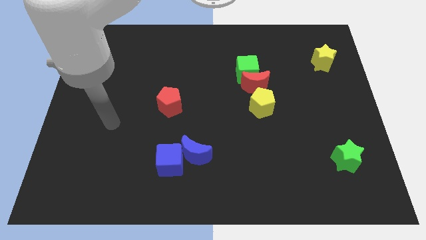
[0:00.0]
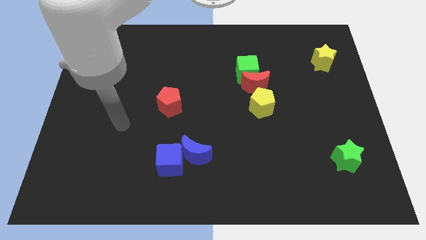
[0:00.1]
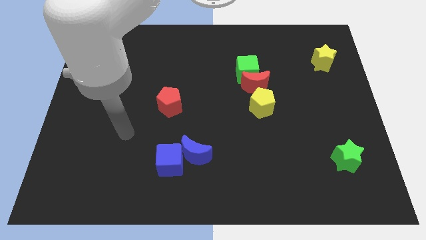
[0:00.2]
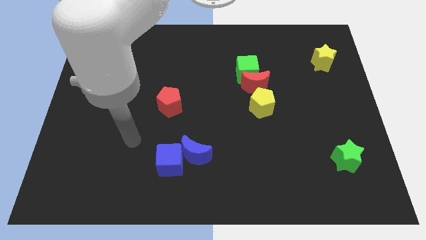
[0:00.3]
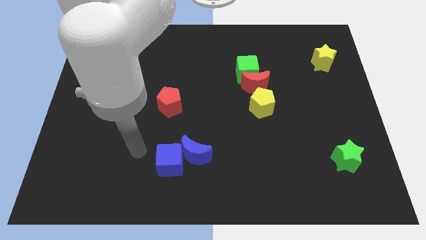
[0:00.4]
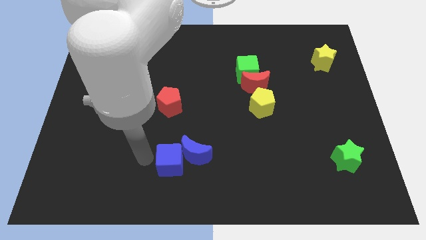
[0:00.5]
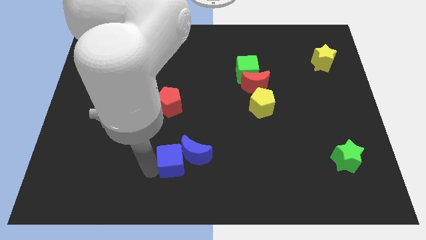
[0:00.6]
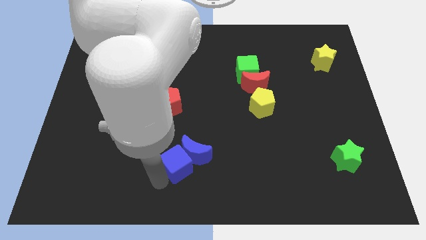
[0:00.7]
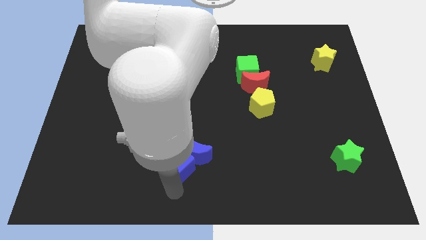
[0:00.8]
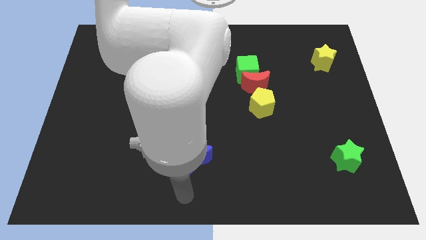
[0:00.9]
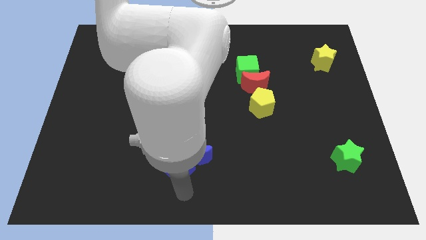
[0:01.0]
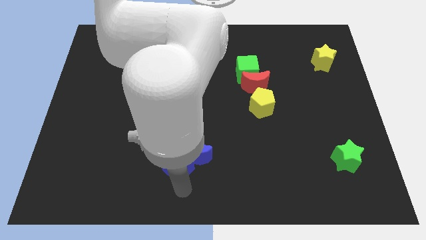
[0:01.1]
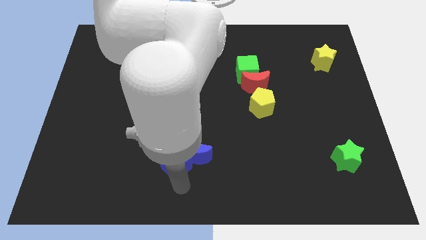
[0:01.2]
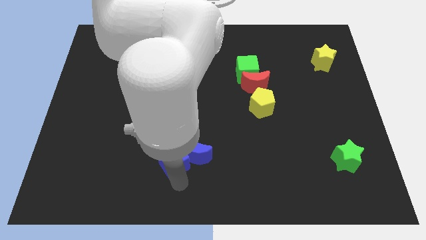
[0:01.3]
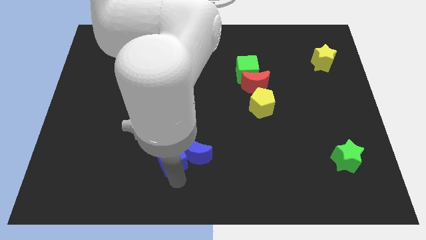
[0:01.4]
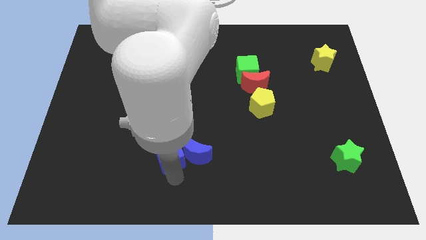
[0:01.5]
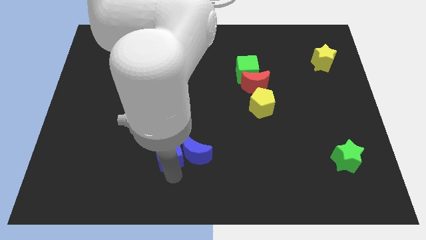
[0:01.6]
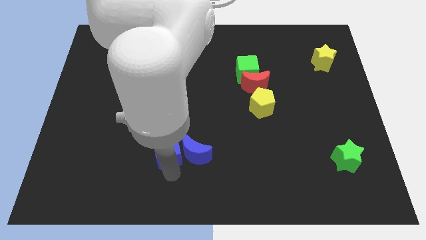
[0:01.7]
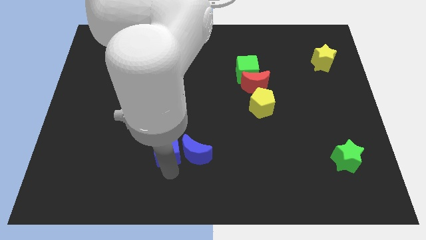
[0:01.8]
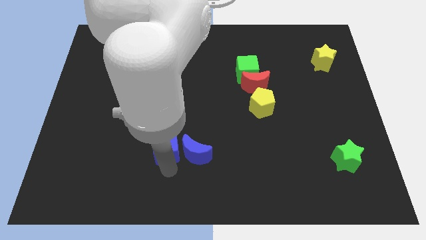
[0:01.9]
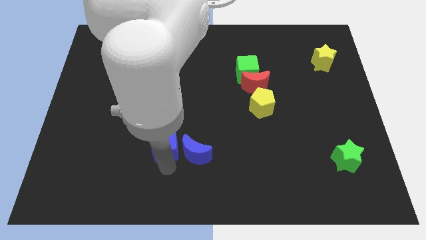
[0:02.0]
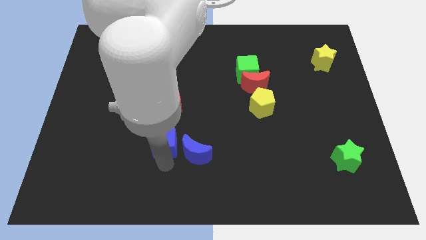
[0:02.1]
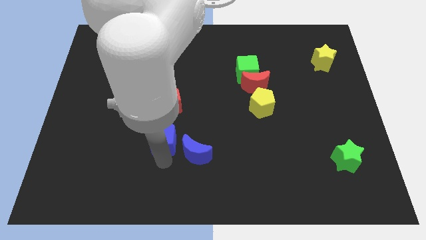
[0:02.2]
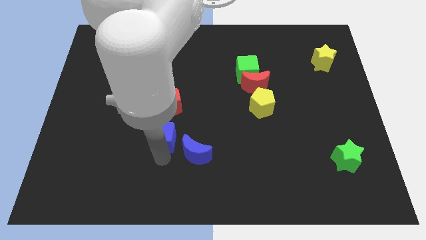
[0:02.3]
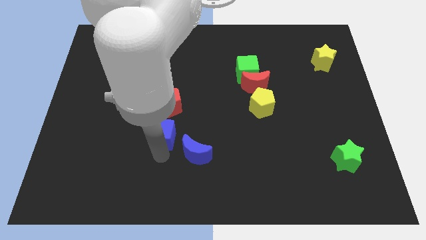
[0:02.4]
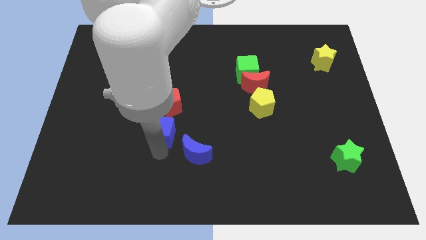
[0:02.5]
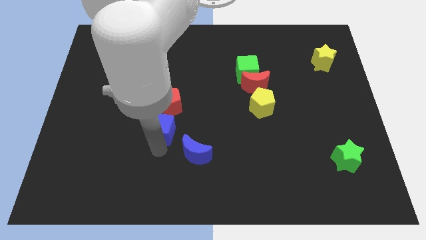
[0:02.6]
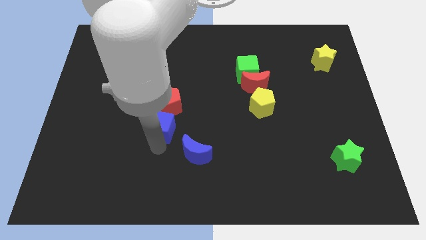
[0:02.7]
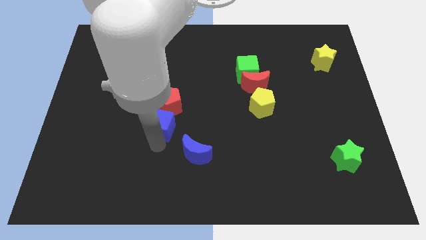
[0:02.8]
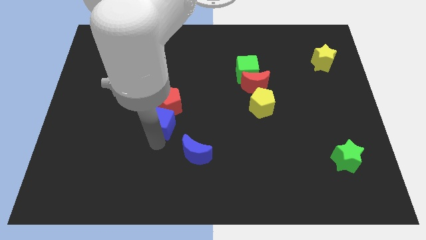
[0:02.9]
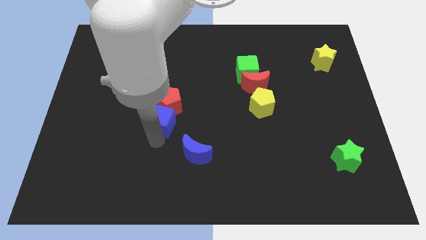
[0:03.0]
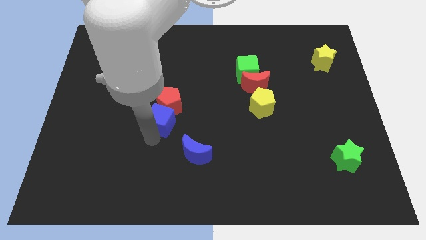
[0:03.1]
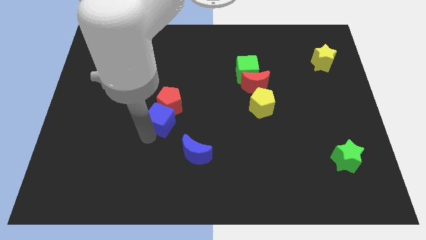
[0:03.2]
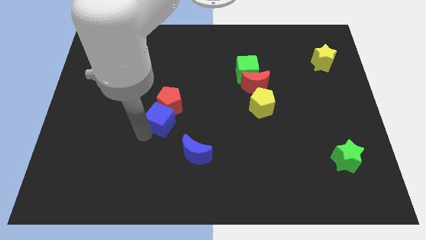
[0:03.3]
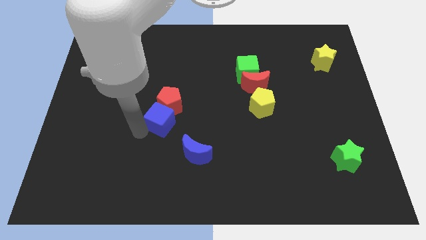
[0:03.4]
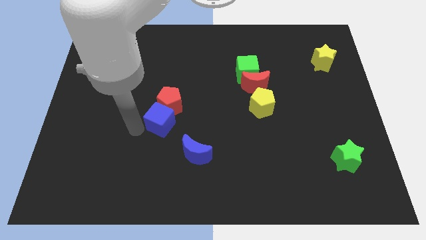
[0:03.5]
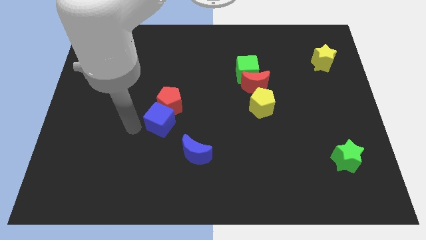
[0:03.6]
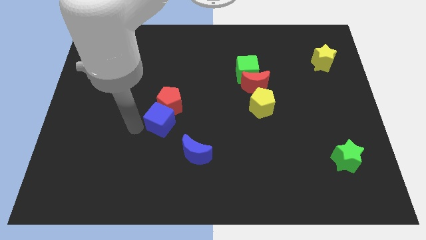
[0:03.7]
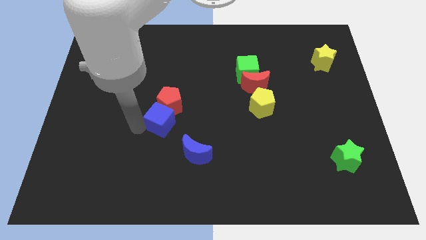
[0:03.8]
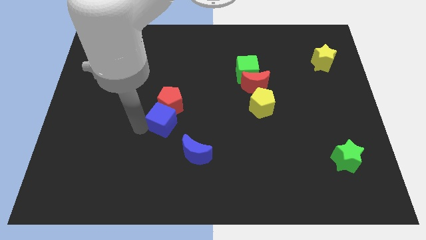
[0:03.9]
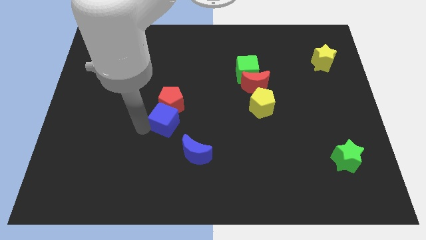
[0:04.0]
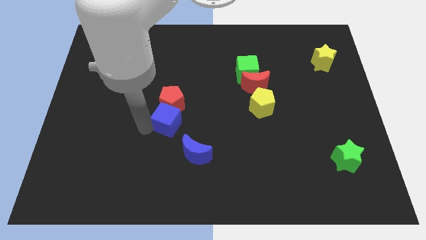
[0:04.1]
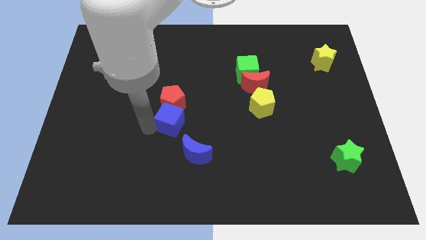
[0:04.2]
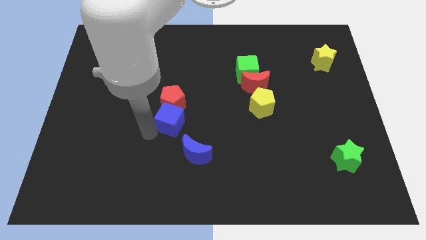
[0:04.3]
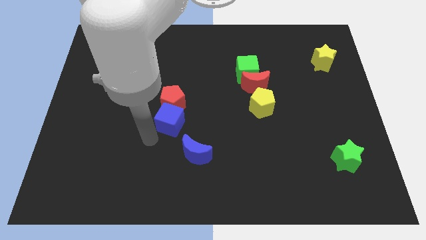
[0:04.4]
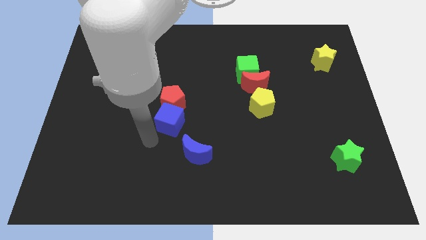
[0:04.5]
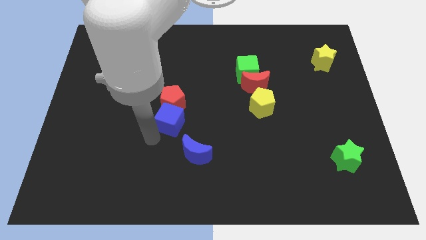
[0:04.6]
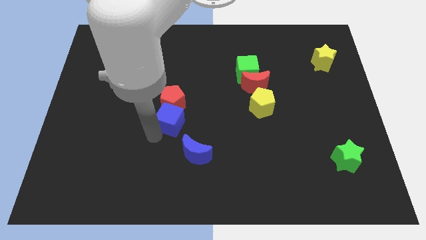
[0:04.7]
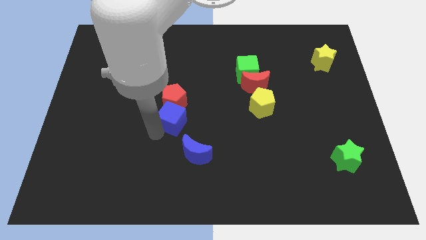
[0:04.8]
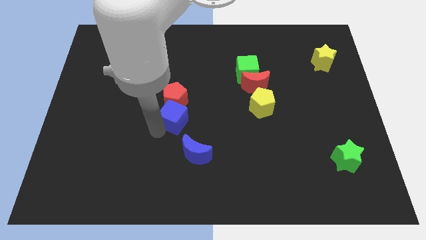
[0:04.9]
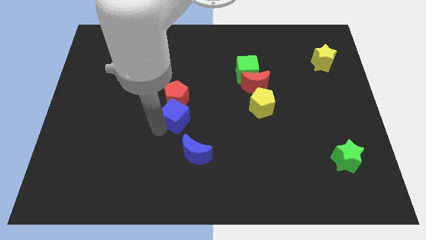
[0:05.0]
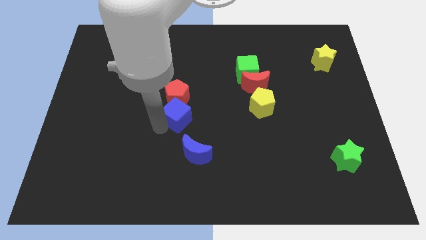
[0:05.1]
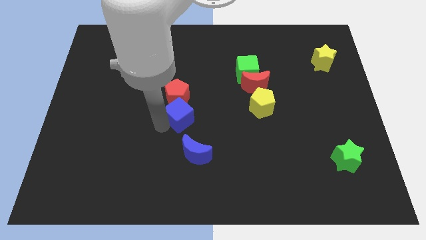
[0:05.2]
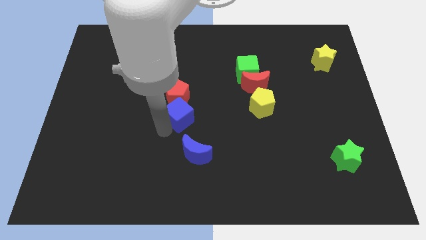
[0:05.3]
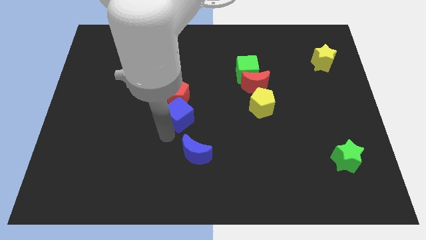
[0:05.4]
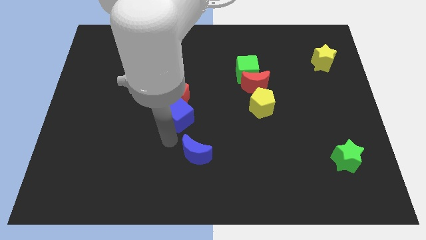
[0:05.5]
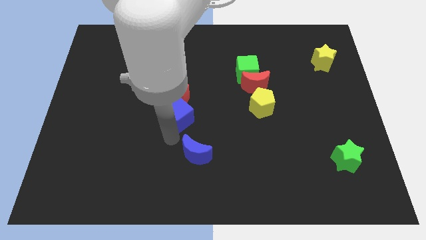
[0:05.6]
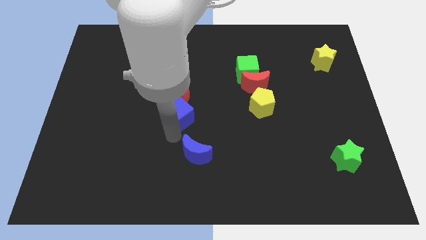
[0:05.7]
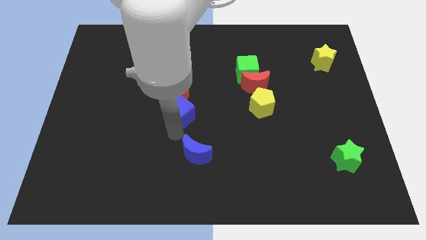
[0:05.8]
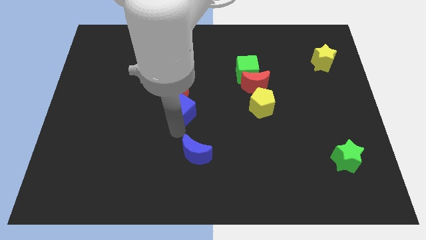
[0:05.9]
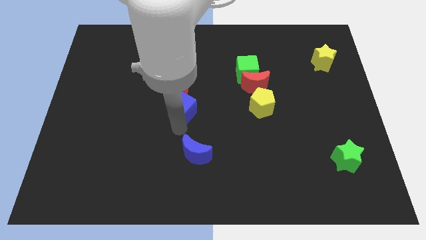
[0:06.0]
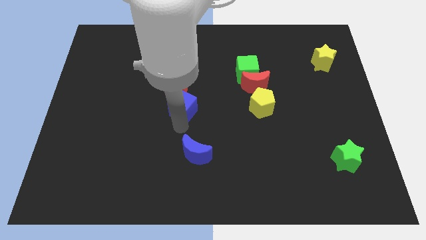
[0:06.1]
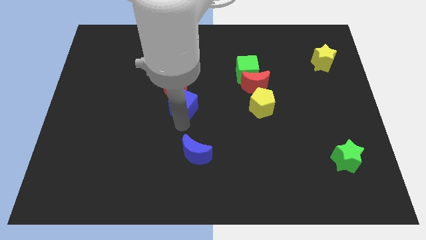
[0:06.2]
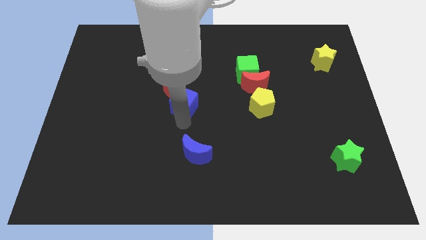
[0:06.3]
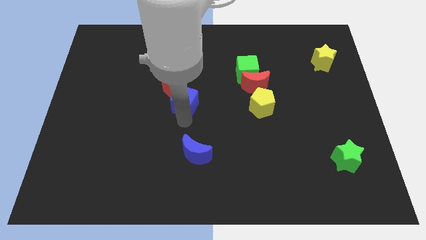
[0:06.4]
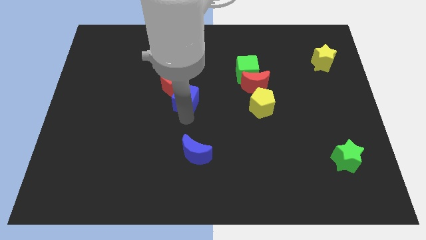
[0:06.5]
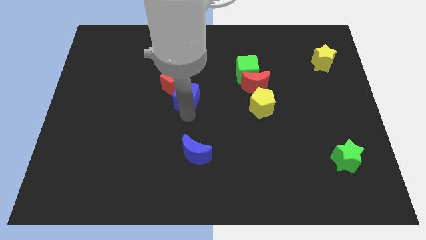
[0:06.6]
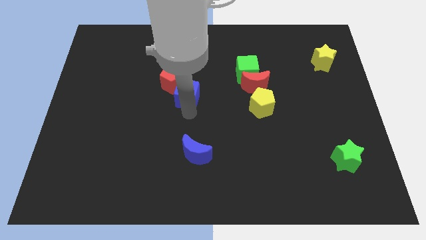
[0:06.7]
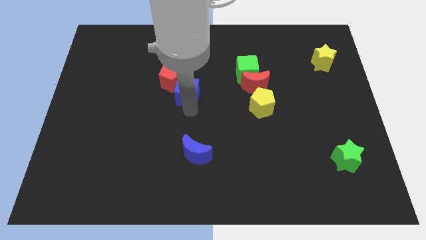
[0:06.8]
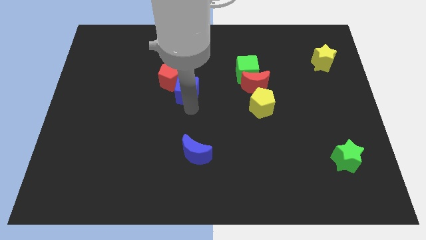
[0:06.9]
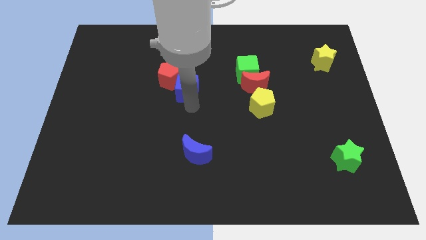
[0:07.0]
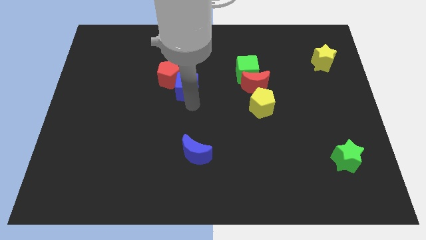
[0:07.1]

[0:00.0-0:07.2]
push the blue cube up

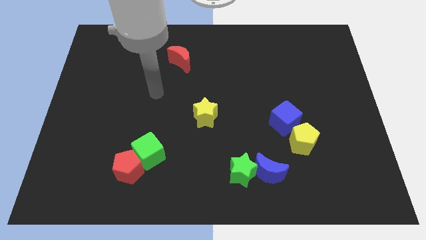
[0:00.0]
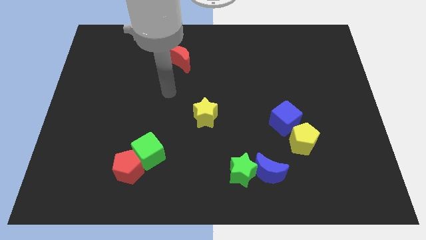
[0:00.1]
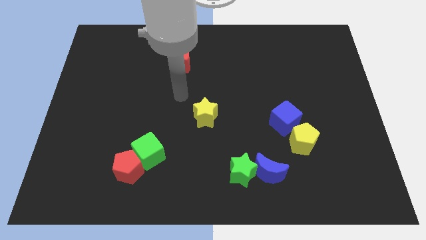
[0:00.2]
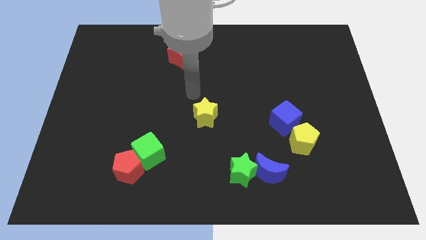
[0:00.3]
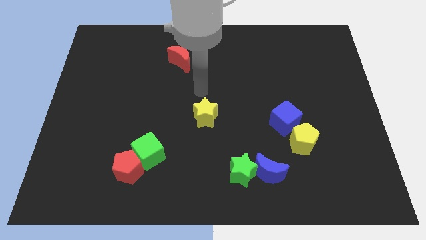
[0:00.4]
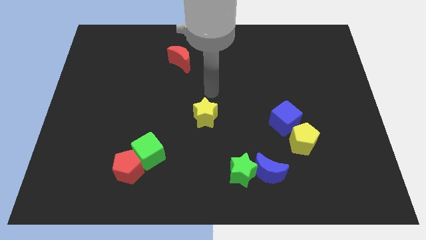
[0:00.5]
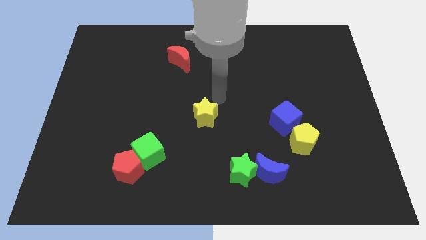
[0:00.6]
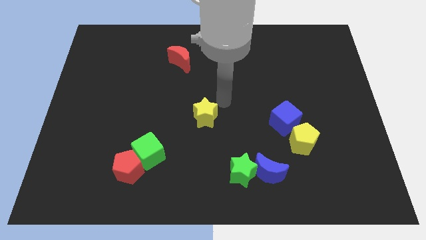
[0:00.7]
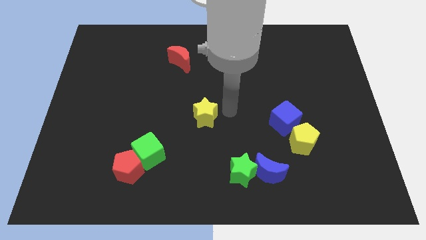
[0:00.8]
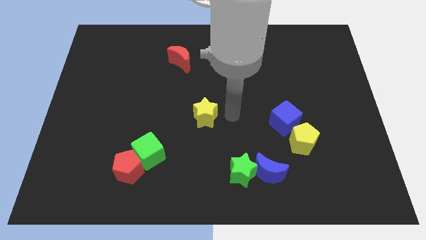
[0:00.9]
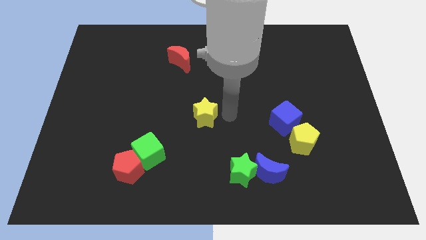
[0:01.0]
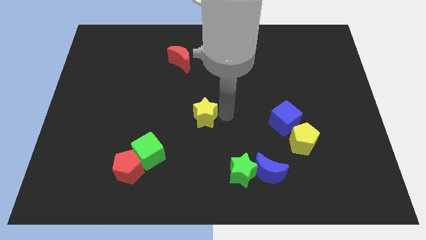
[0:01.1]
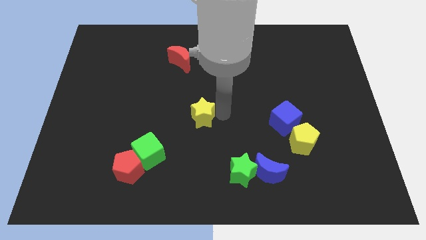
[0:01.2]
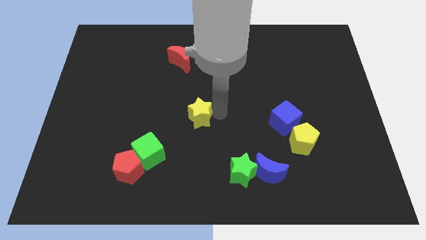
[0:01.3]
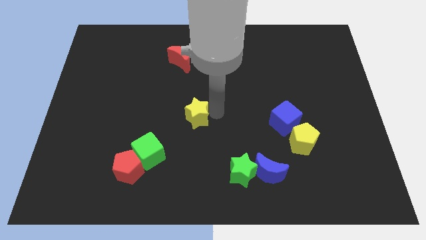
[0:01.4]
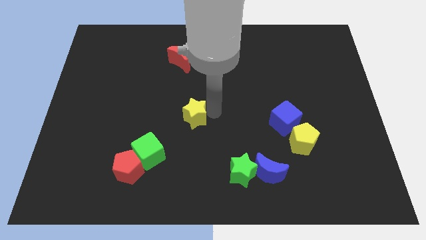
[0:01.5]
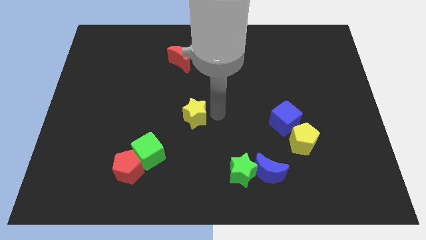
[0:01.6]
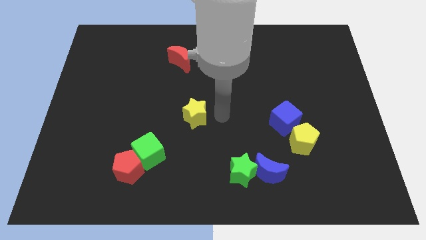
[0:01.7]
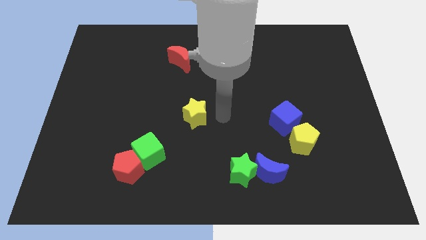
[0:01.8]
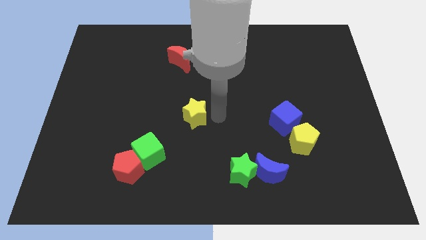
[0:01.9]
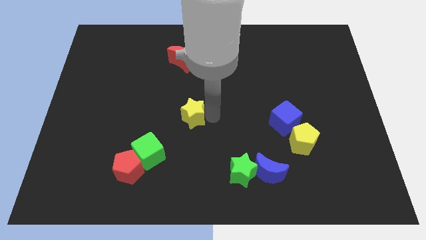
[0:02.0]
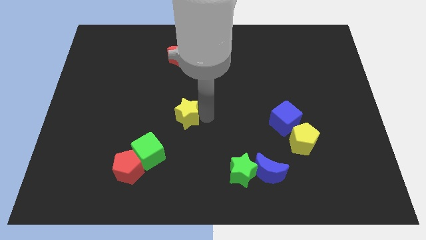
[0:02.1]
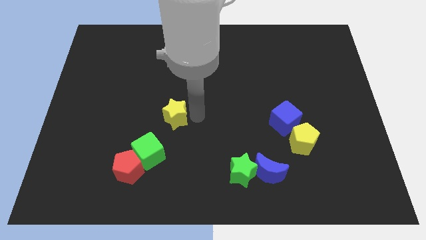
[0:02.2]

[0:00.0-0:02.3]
push the yellow star left slightly
